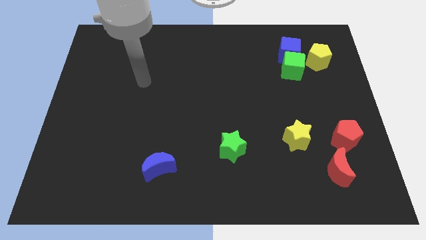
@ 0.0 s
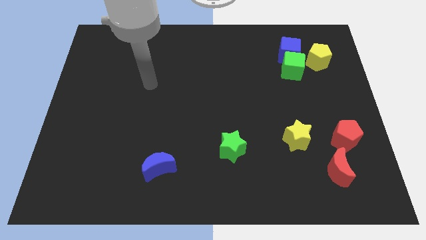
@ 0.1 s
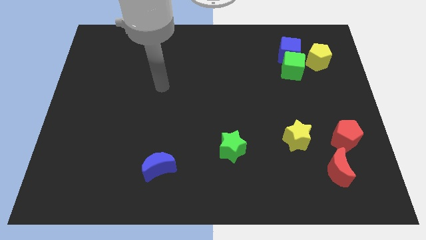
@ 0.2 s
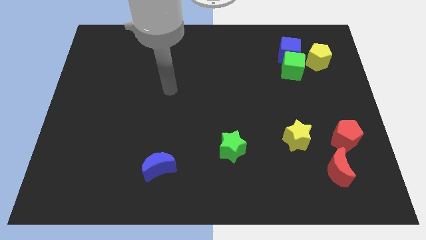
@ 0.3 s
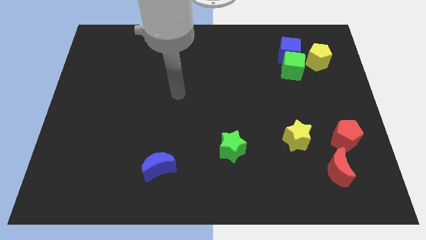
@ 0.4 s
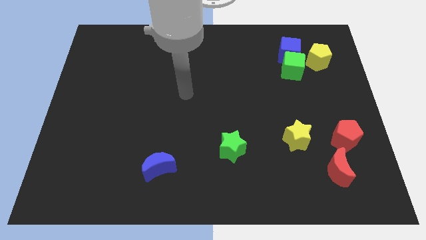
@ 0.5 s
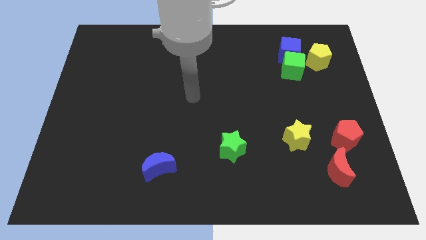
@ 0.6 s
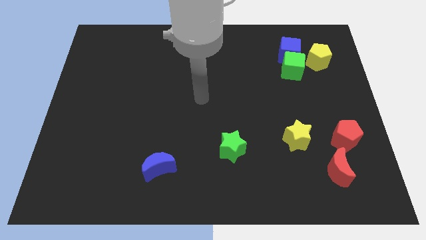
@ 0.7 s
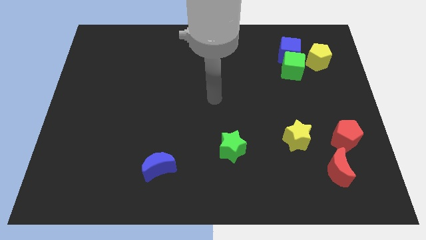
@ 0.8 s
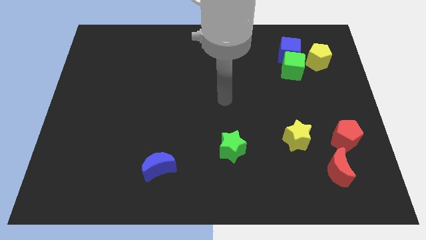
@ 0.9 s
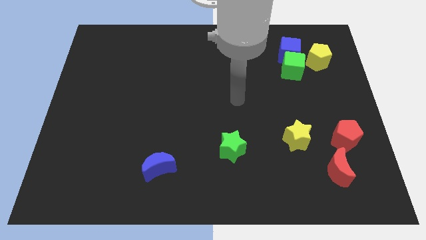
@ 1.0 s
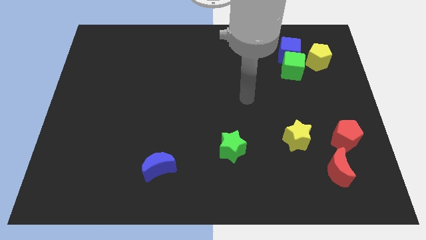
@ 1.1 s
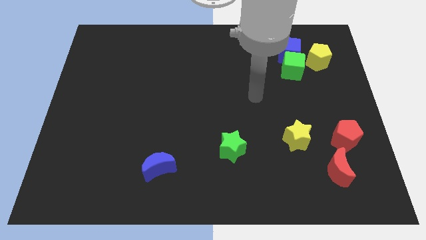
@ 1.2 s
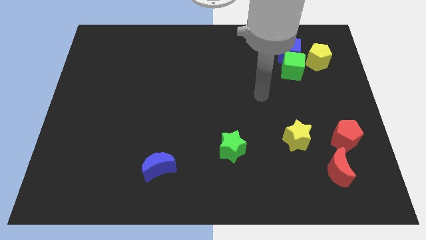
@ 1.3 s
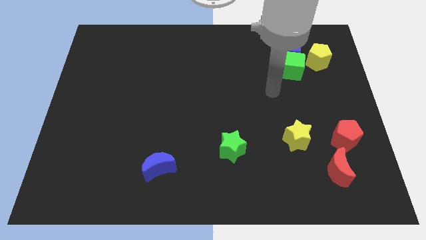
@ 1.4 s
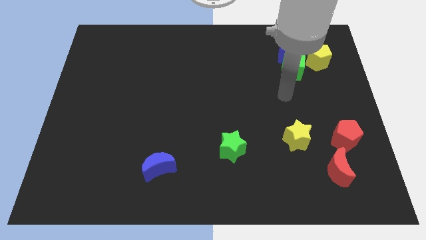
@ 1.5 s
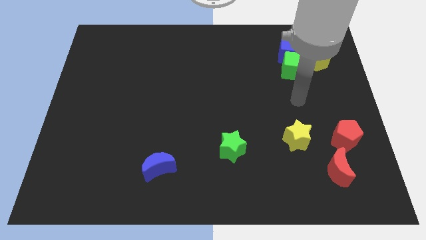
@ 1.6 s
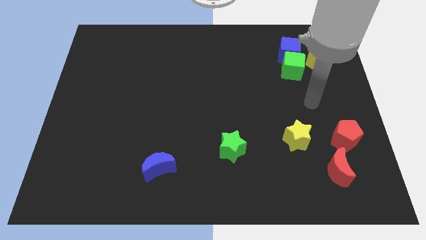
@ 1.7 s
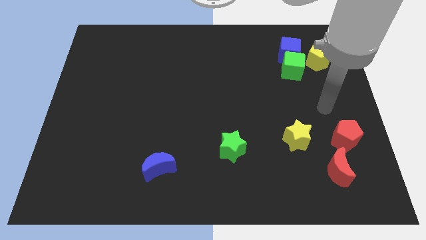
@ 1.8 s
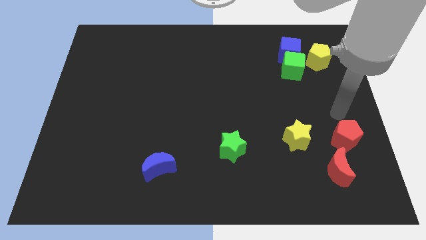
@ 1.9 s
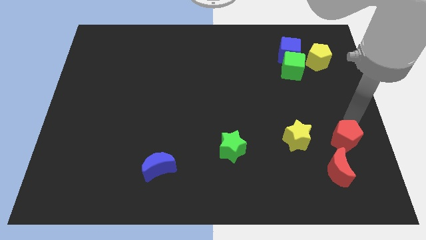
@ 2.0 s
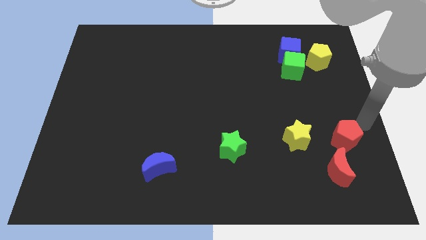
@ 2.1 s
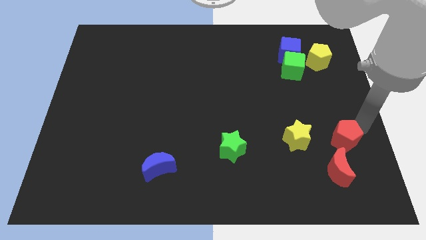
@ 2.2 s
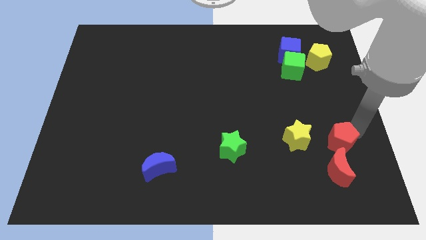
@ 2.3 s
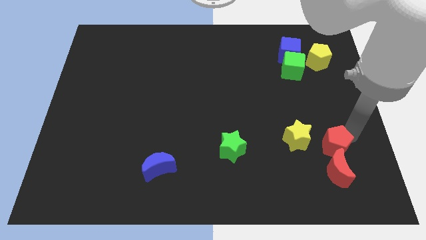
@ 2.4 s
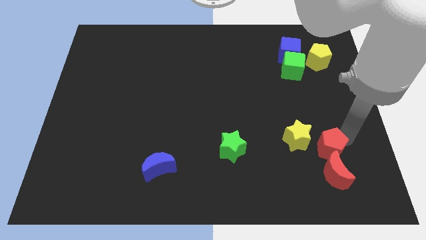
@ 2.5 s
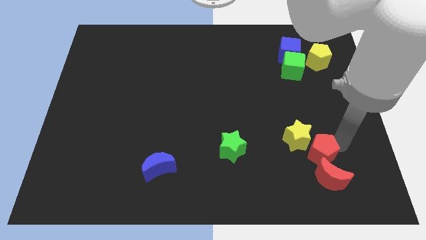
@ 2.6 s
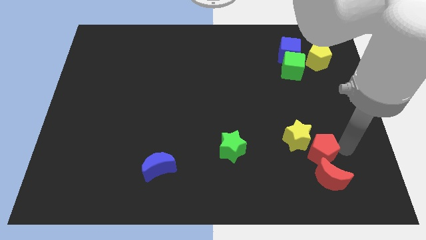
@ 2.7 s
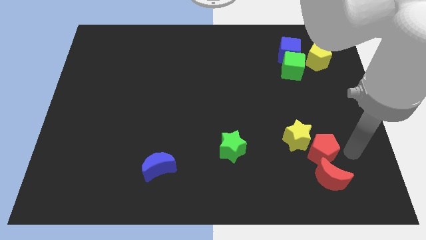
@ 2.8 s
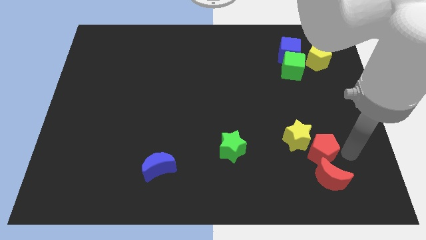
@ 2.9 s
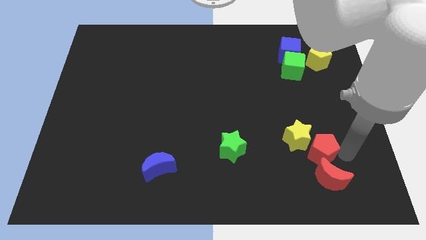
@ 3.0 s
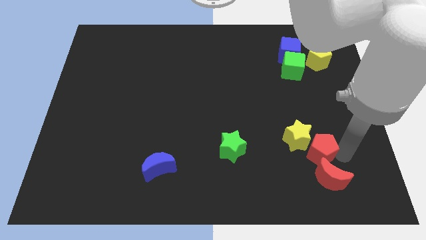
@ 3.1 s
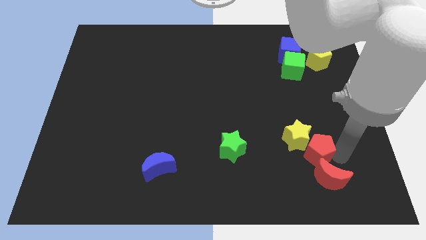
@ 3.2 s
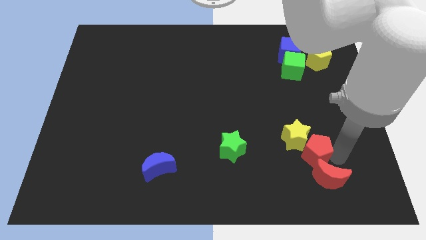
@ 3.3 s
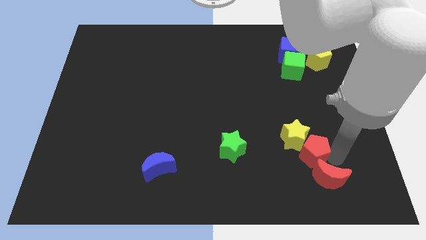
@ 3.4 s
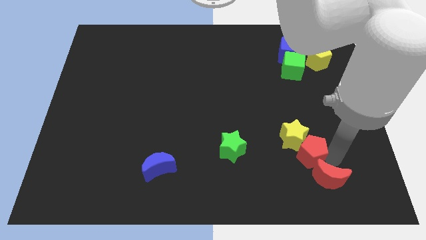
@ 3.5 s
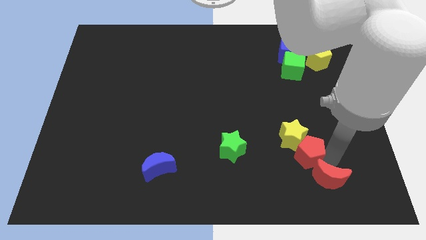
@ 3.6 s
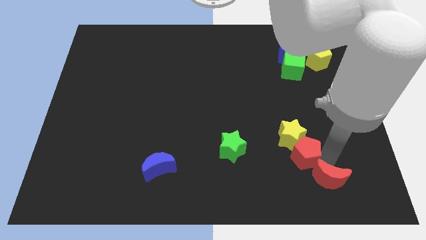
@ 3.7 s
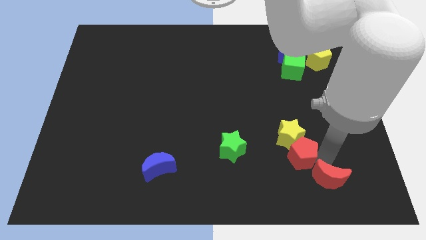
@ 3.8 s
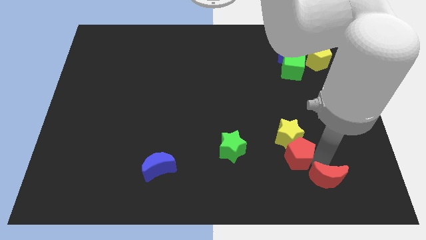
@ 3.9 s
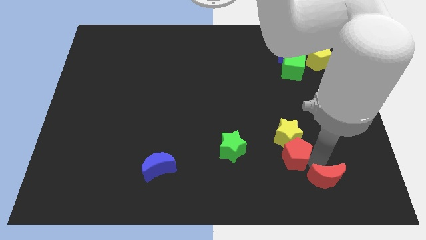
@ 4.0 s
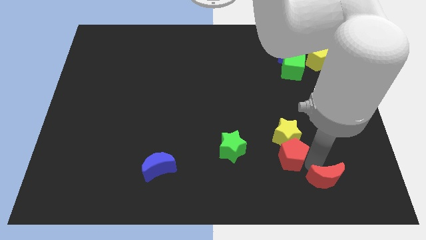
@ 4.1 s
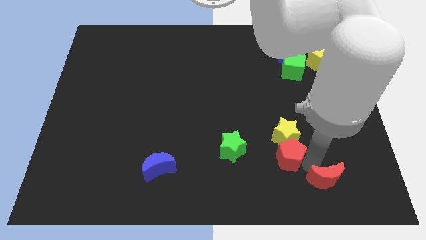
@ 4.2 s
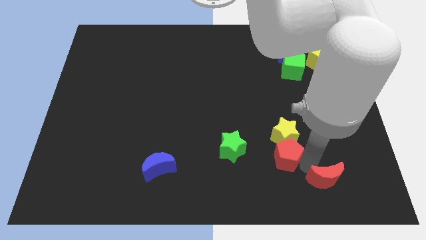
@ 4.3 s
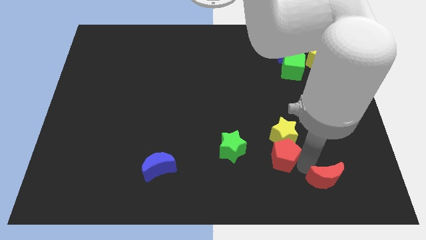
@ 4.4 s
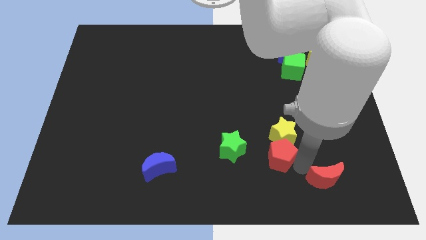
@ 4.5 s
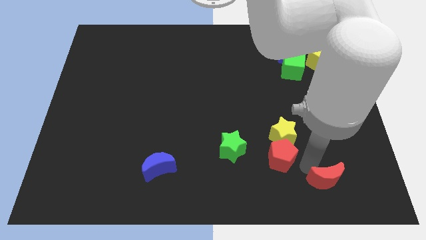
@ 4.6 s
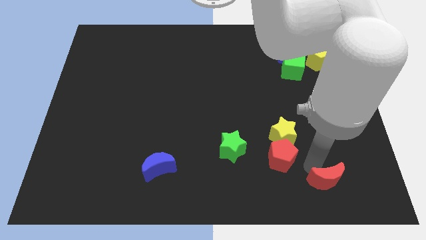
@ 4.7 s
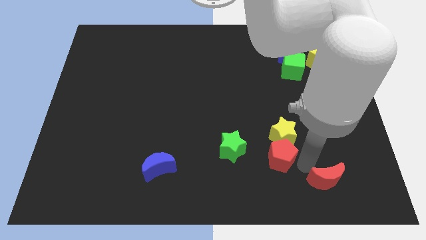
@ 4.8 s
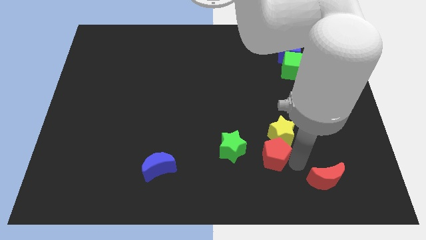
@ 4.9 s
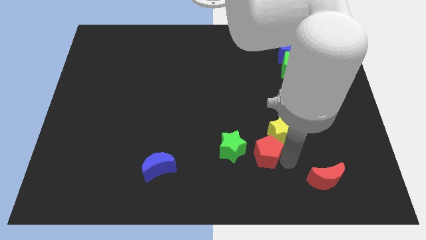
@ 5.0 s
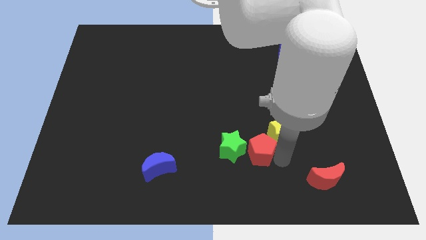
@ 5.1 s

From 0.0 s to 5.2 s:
put the red pentagon next to the green star

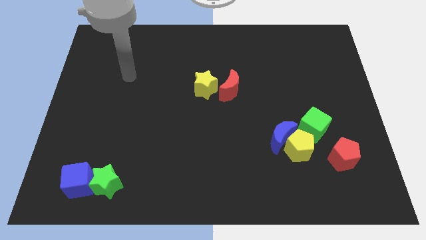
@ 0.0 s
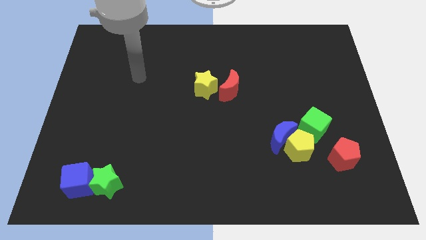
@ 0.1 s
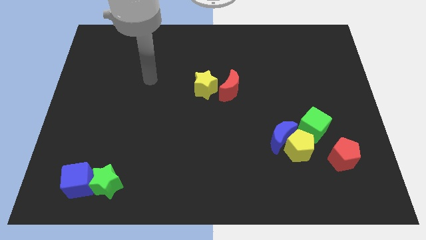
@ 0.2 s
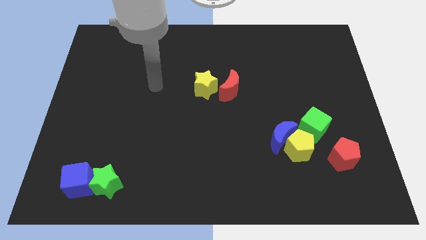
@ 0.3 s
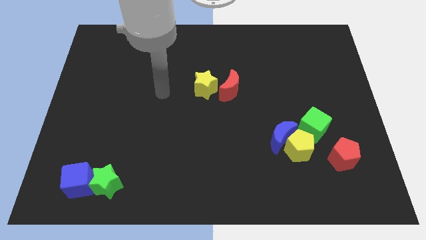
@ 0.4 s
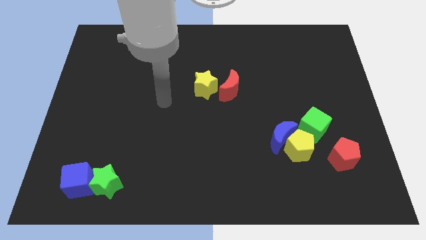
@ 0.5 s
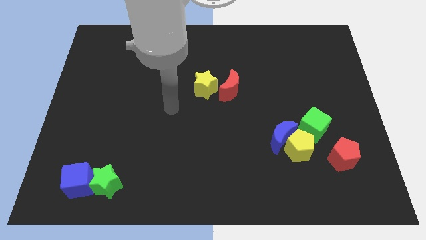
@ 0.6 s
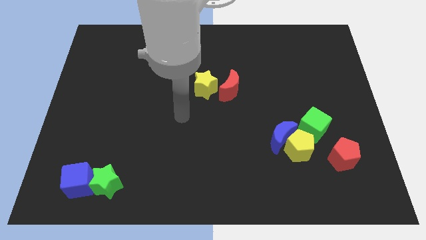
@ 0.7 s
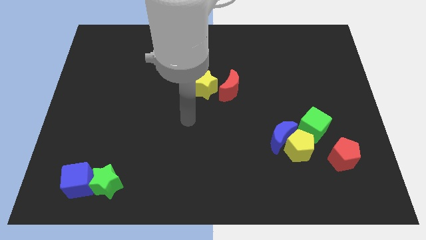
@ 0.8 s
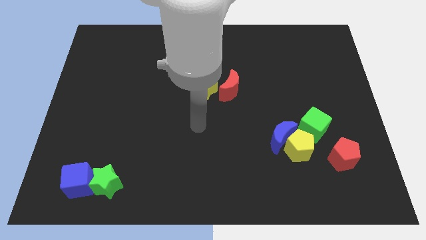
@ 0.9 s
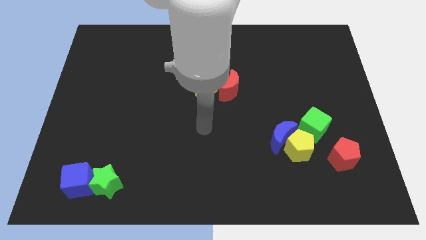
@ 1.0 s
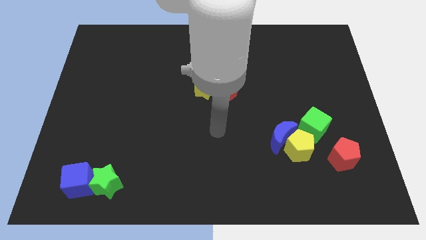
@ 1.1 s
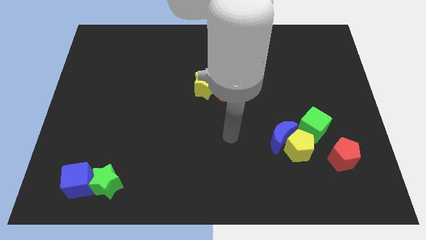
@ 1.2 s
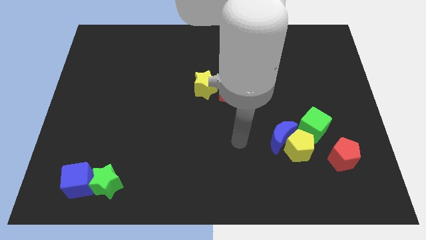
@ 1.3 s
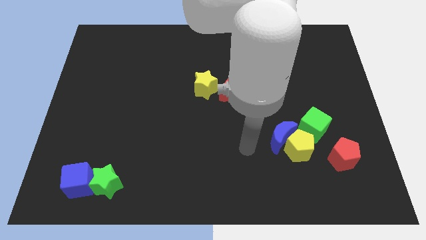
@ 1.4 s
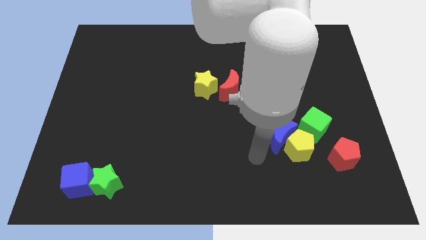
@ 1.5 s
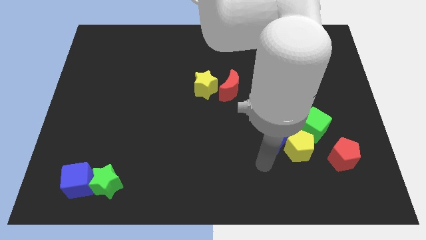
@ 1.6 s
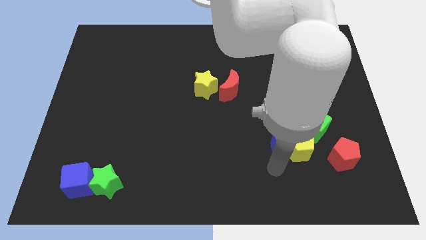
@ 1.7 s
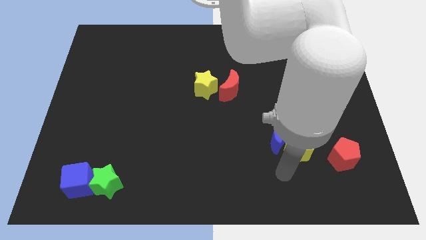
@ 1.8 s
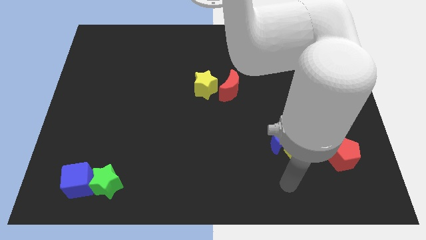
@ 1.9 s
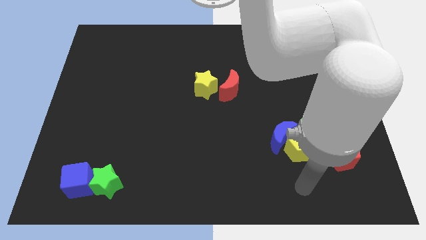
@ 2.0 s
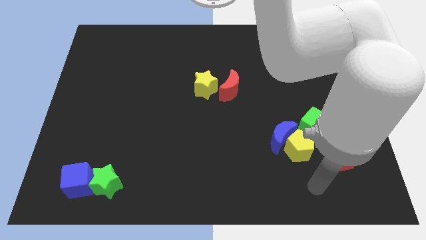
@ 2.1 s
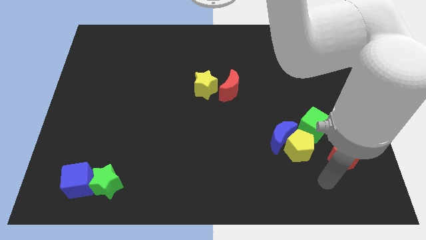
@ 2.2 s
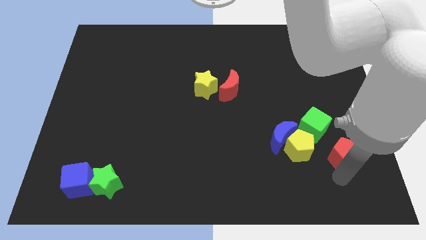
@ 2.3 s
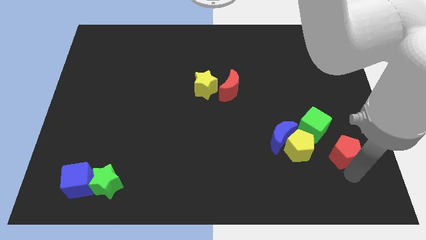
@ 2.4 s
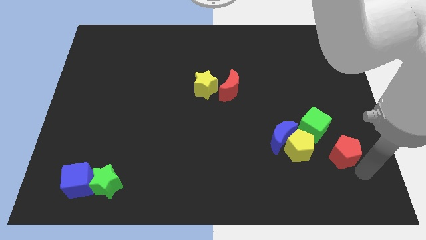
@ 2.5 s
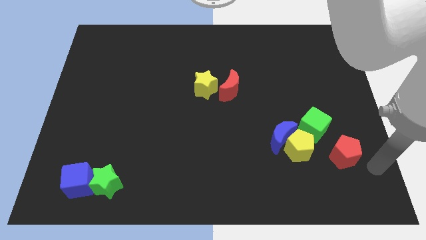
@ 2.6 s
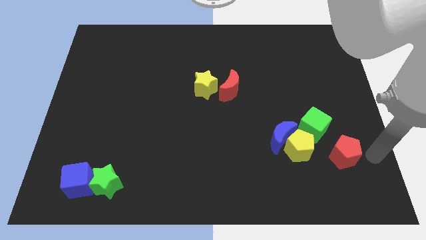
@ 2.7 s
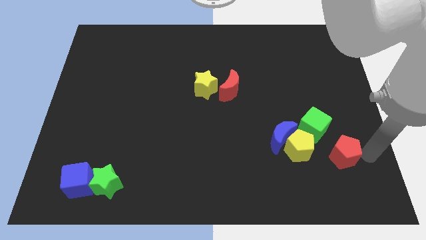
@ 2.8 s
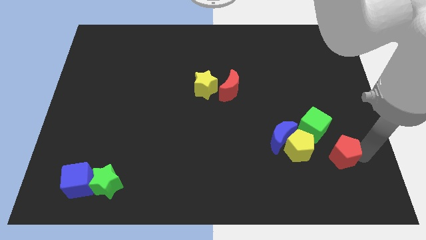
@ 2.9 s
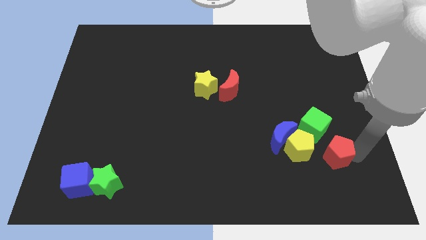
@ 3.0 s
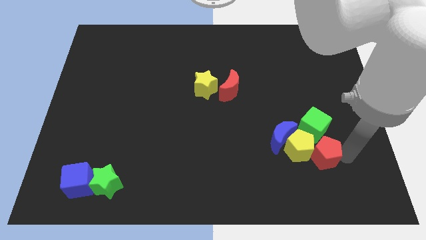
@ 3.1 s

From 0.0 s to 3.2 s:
move the red pentagon towards the yellow pentagon
